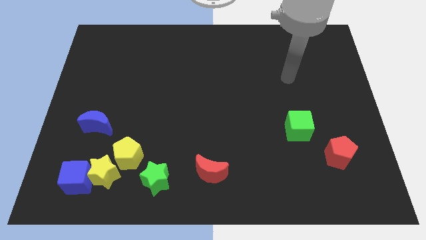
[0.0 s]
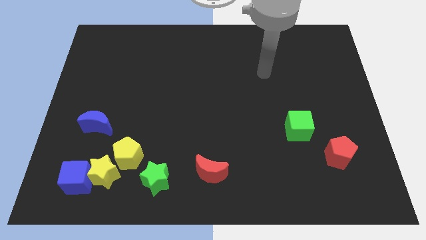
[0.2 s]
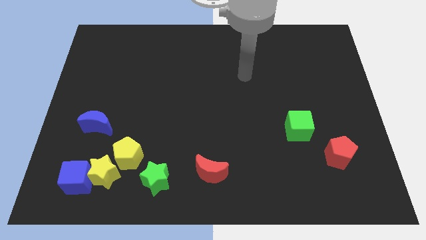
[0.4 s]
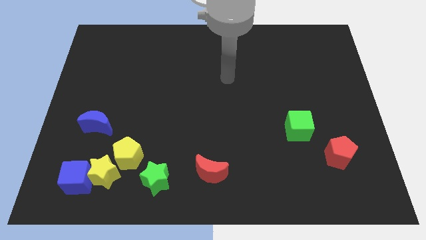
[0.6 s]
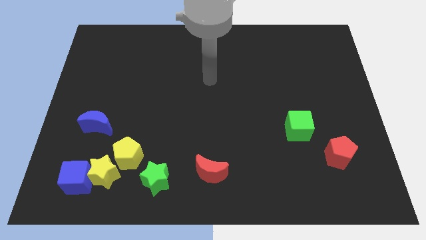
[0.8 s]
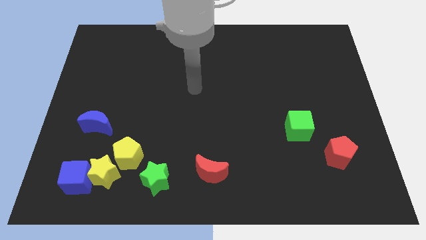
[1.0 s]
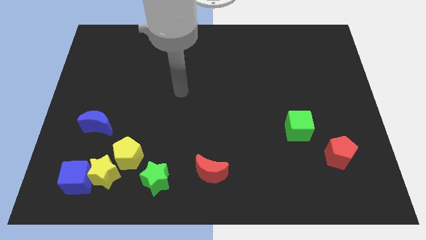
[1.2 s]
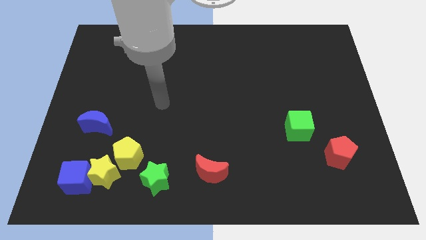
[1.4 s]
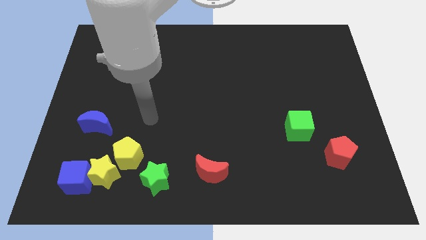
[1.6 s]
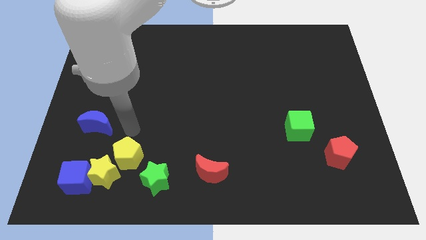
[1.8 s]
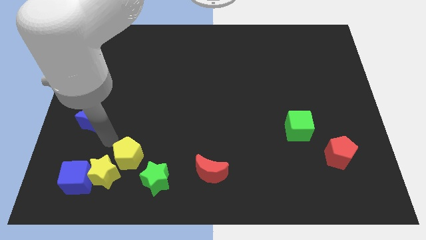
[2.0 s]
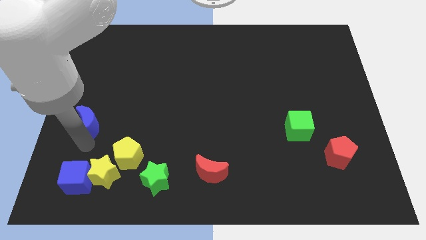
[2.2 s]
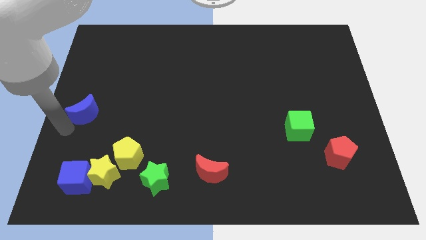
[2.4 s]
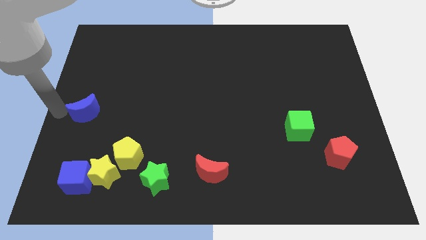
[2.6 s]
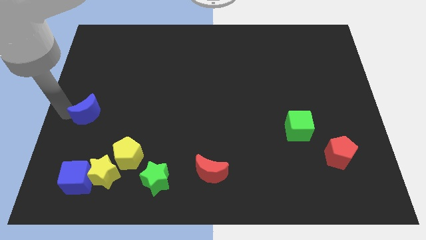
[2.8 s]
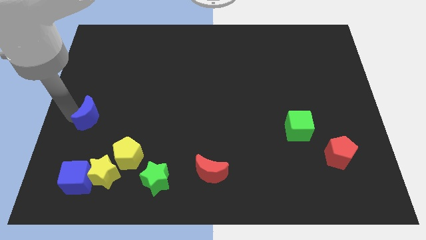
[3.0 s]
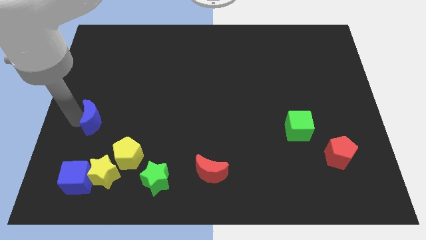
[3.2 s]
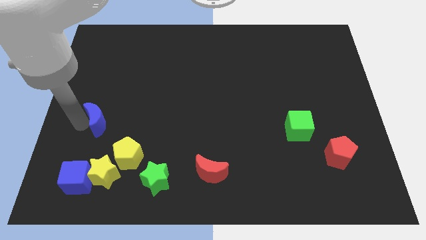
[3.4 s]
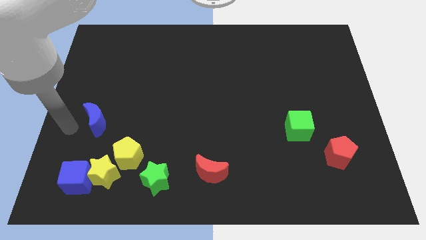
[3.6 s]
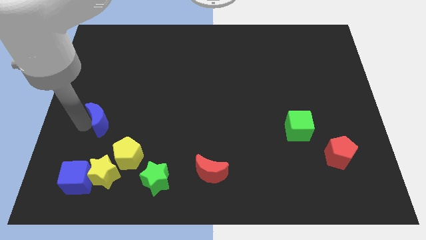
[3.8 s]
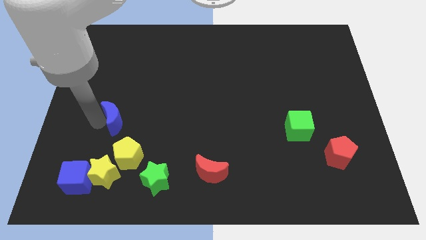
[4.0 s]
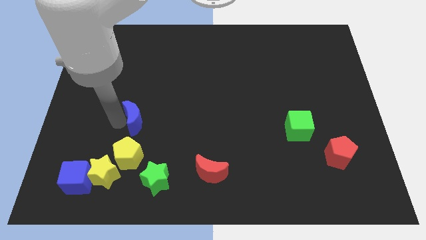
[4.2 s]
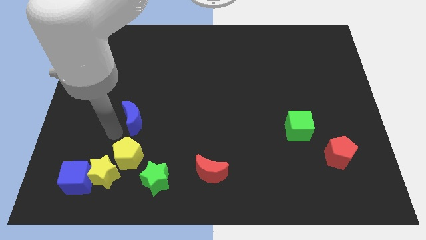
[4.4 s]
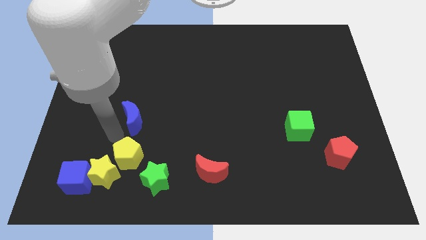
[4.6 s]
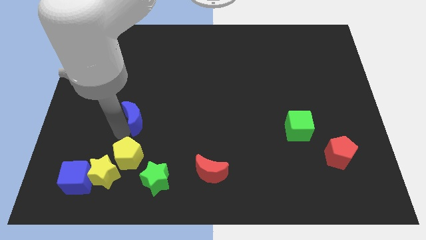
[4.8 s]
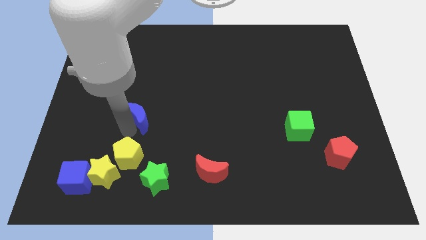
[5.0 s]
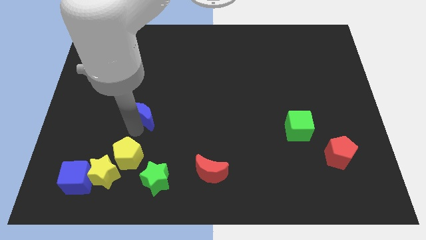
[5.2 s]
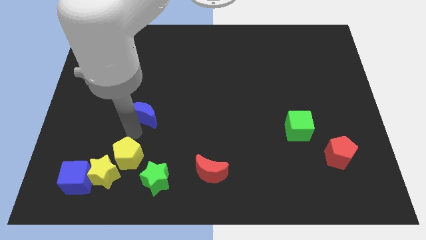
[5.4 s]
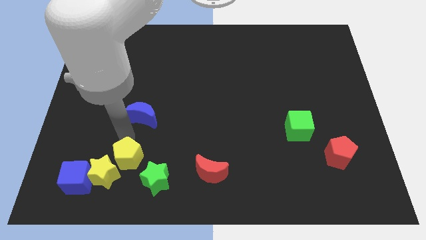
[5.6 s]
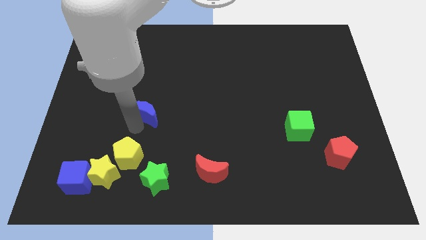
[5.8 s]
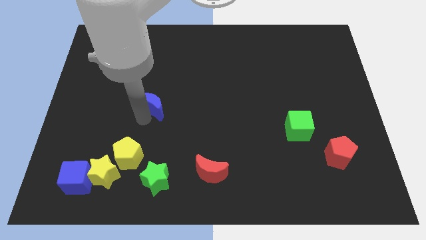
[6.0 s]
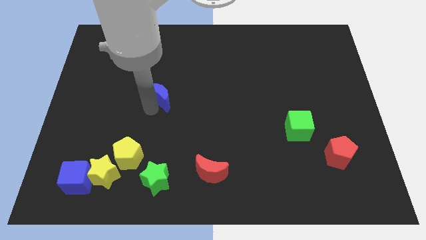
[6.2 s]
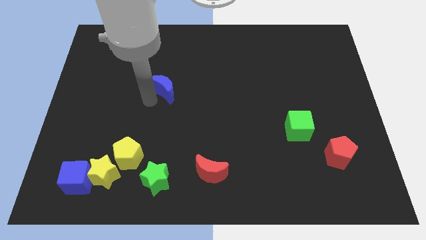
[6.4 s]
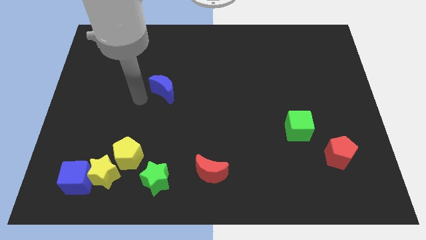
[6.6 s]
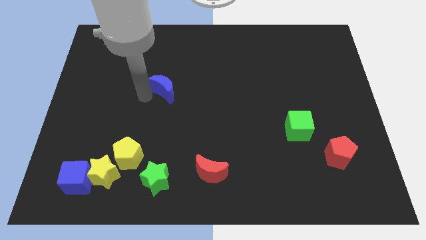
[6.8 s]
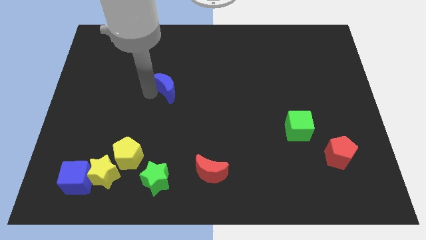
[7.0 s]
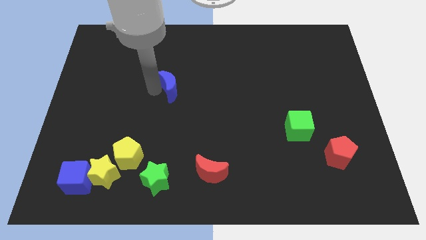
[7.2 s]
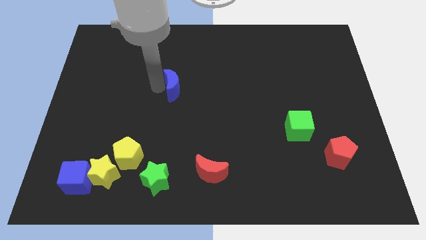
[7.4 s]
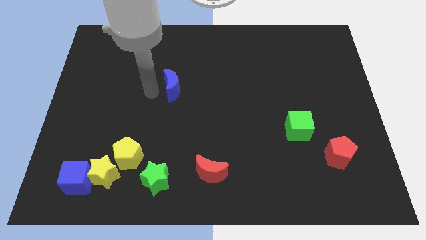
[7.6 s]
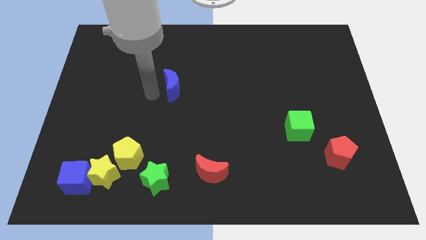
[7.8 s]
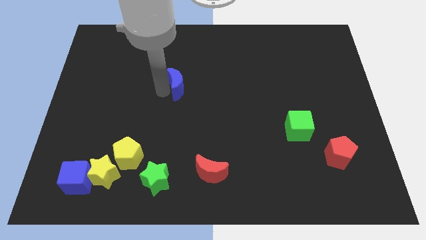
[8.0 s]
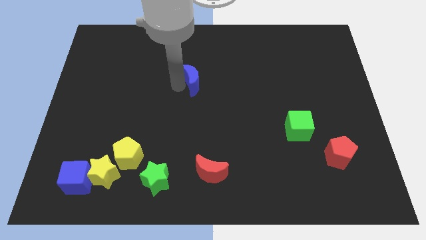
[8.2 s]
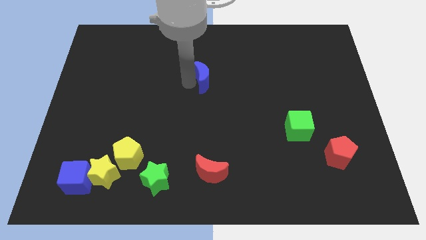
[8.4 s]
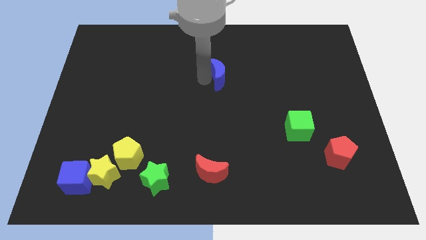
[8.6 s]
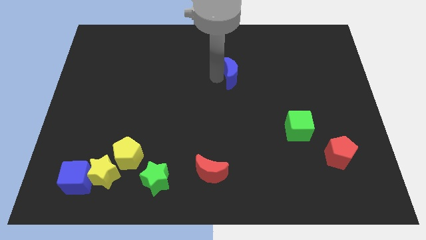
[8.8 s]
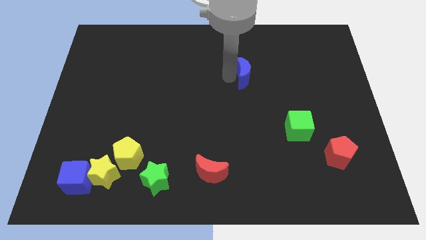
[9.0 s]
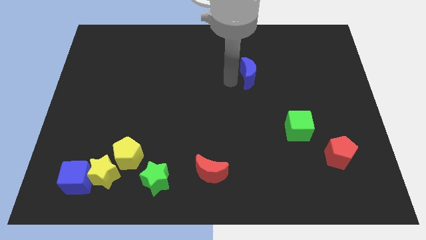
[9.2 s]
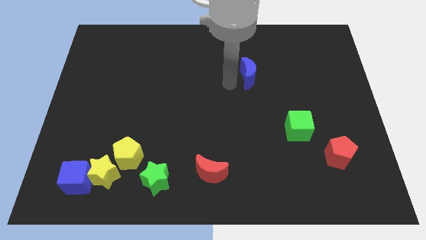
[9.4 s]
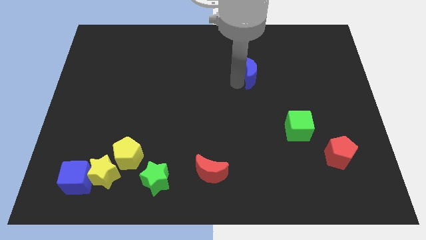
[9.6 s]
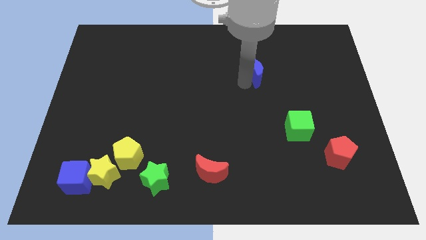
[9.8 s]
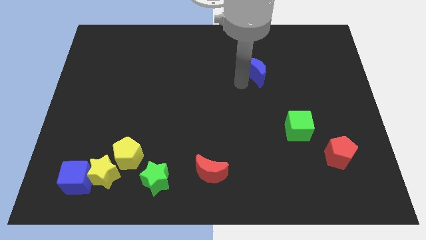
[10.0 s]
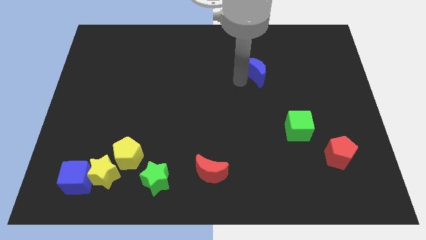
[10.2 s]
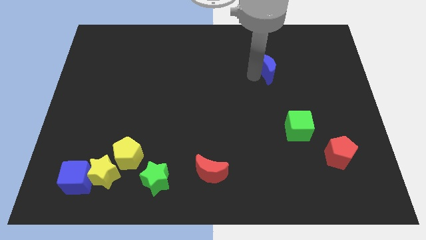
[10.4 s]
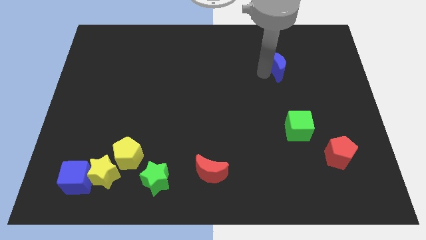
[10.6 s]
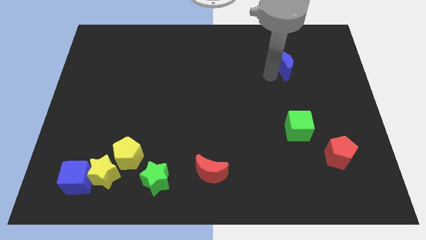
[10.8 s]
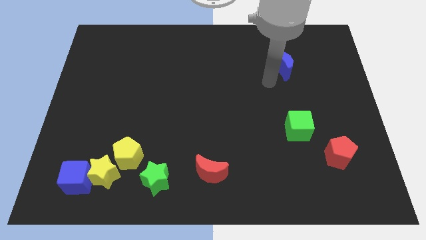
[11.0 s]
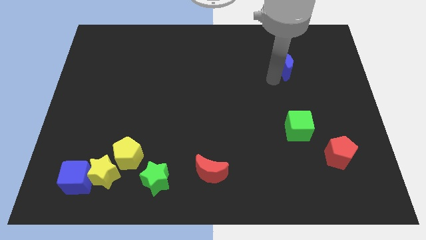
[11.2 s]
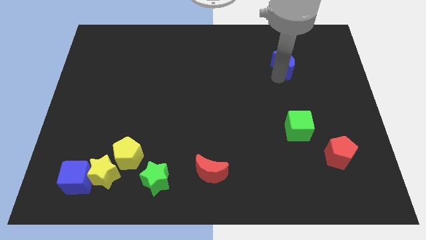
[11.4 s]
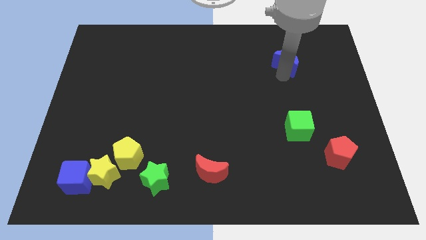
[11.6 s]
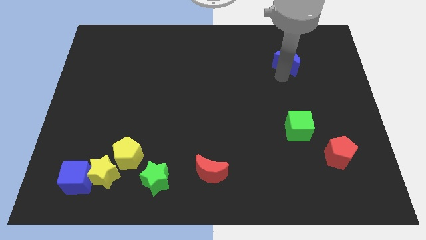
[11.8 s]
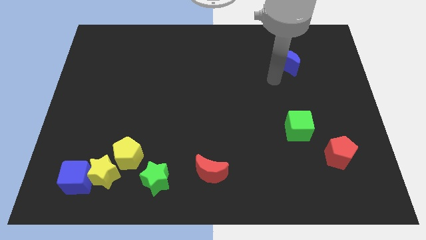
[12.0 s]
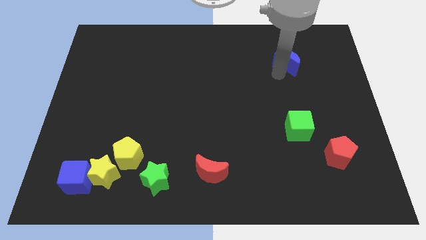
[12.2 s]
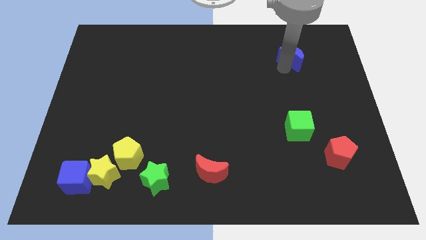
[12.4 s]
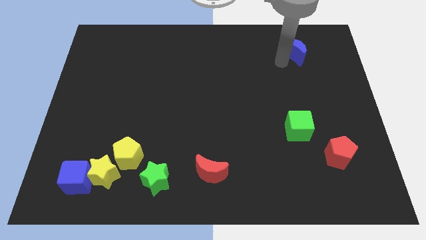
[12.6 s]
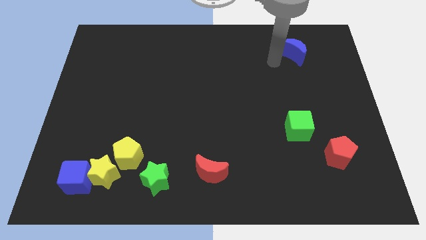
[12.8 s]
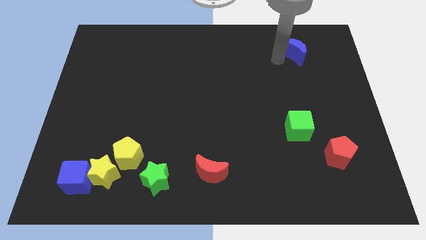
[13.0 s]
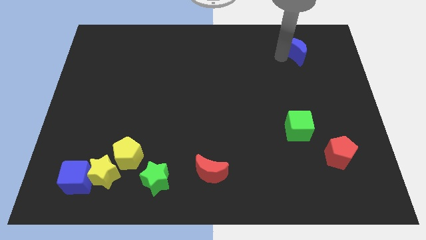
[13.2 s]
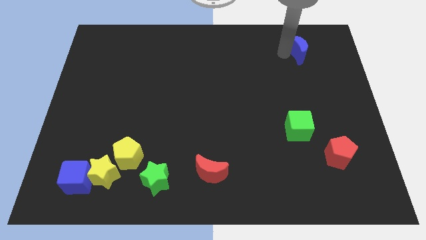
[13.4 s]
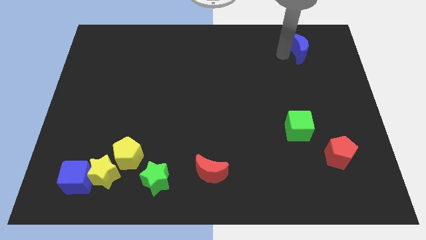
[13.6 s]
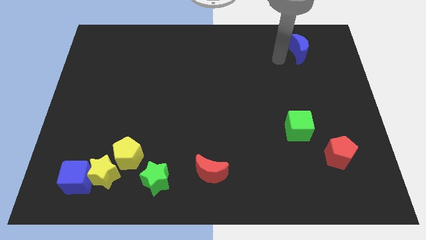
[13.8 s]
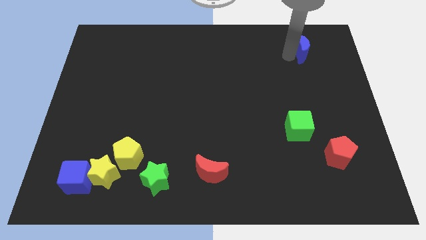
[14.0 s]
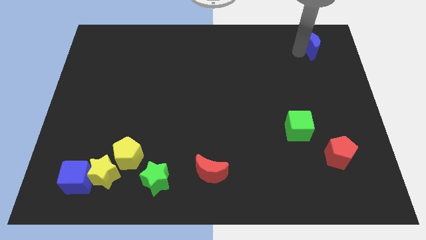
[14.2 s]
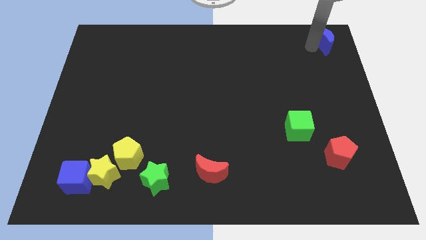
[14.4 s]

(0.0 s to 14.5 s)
push the blue moon to the top right of the board
